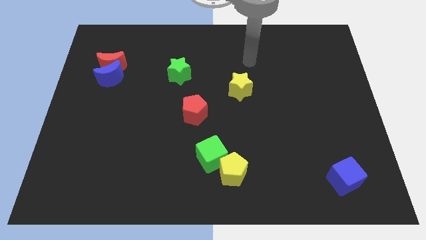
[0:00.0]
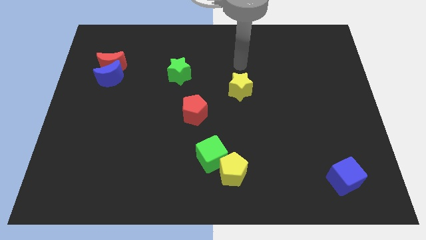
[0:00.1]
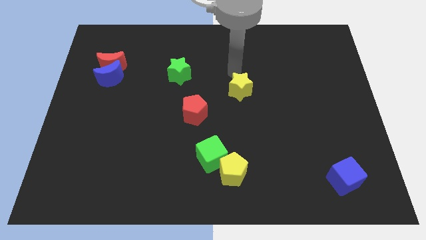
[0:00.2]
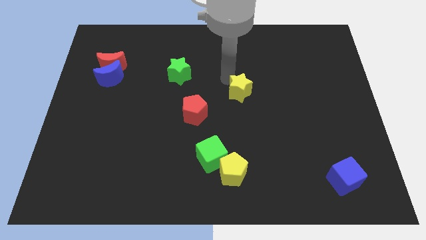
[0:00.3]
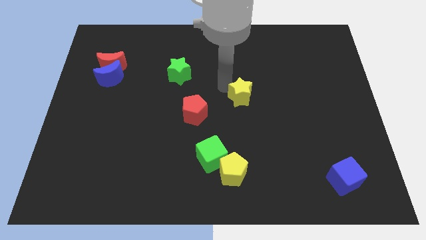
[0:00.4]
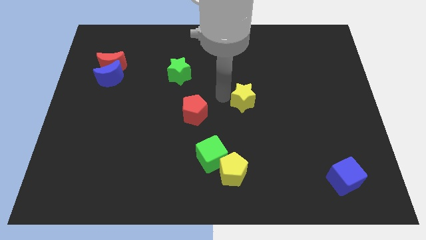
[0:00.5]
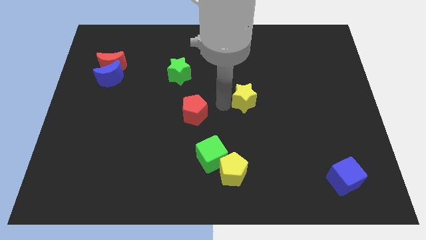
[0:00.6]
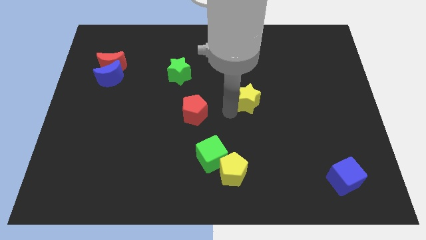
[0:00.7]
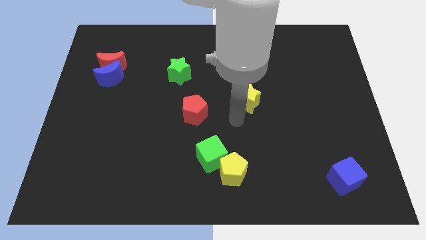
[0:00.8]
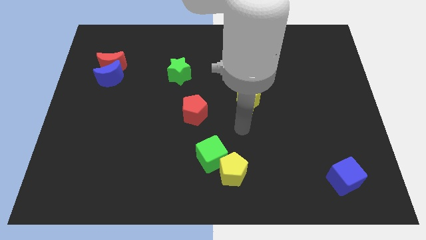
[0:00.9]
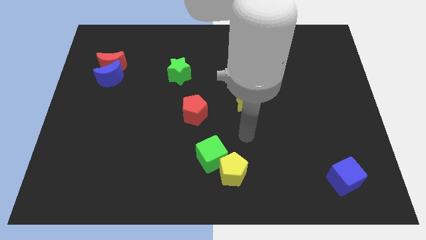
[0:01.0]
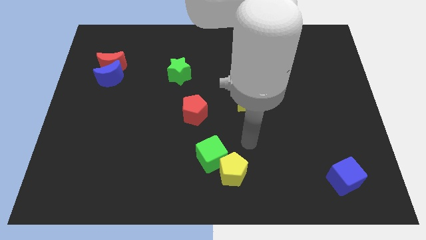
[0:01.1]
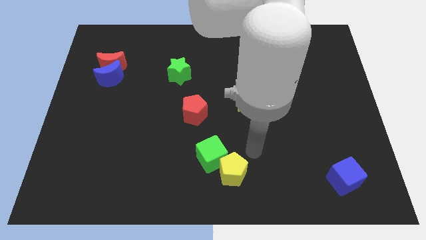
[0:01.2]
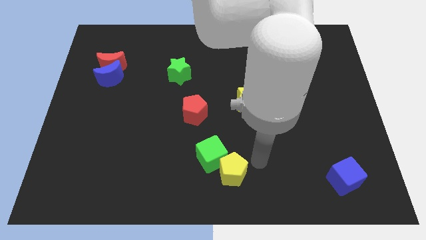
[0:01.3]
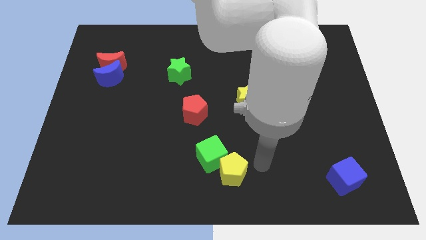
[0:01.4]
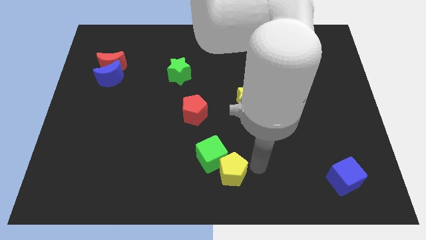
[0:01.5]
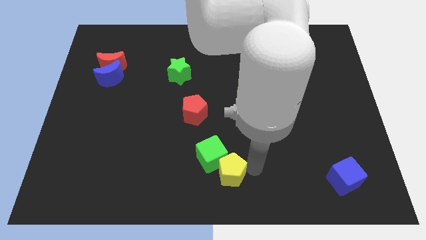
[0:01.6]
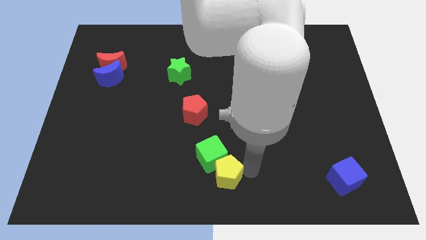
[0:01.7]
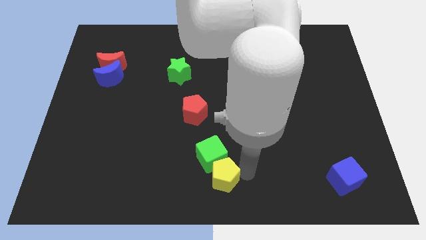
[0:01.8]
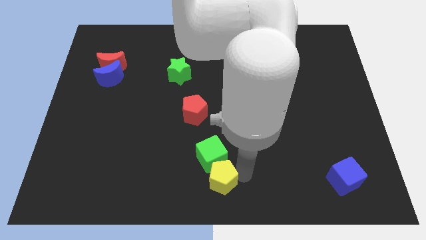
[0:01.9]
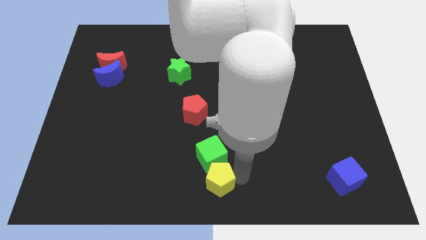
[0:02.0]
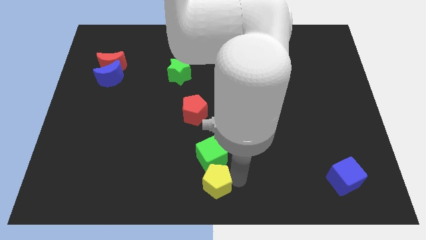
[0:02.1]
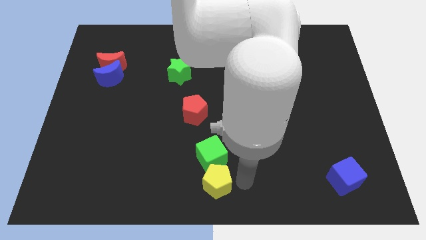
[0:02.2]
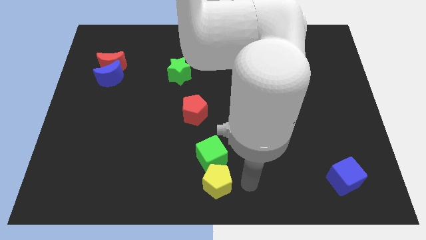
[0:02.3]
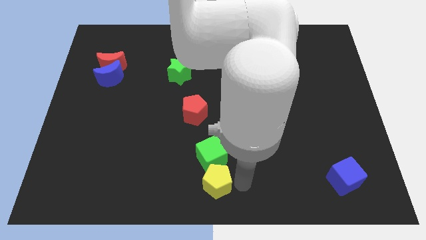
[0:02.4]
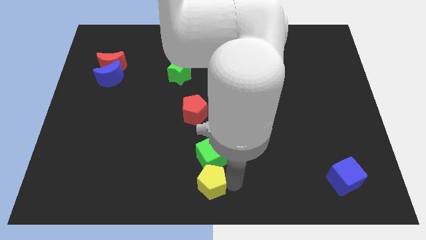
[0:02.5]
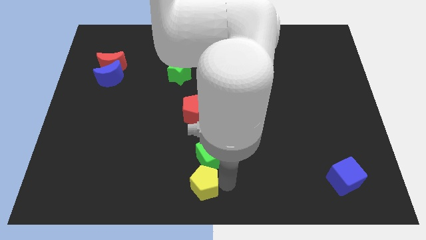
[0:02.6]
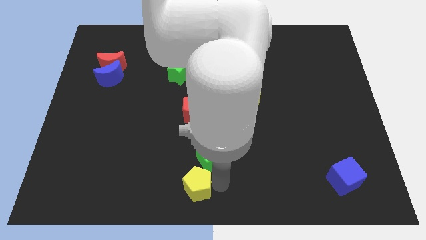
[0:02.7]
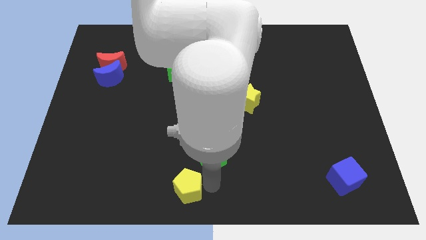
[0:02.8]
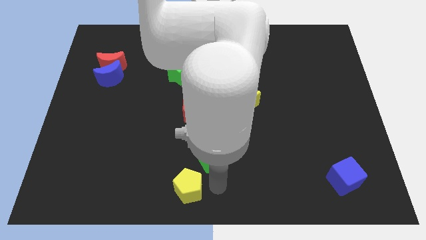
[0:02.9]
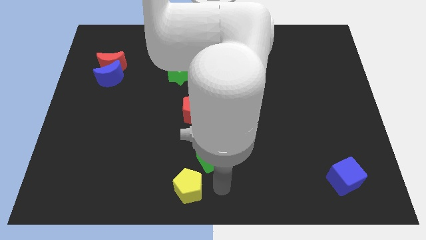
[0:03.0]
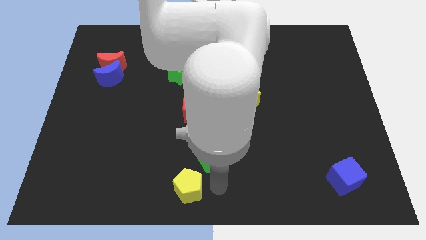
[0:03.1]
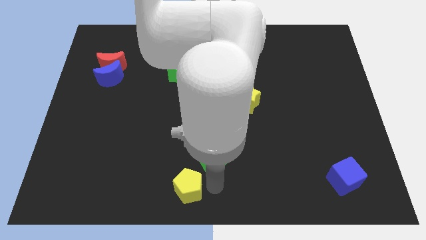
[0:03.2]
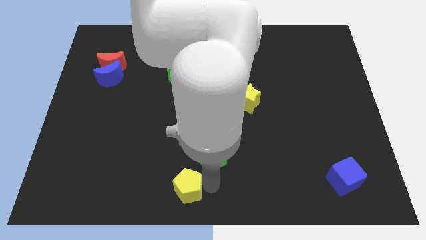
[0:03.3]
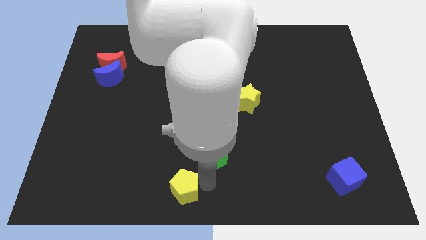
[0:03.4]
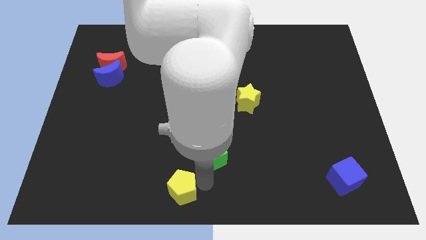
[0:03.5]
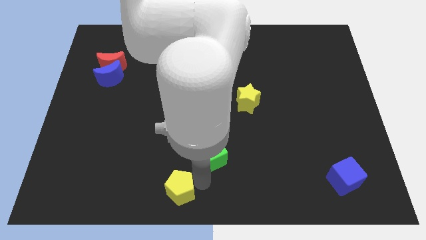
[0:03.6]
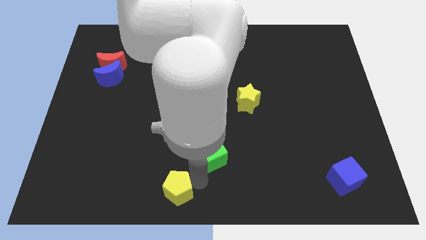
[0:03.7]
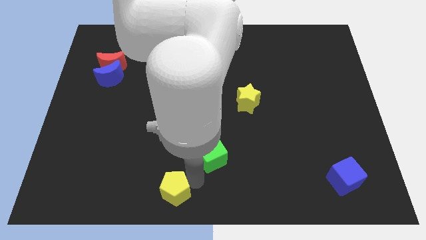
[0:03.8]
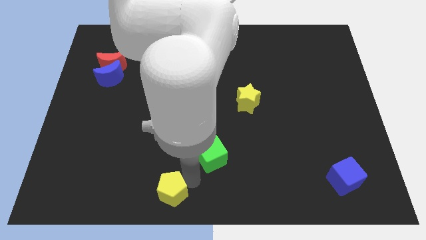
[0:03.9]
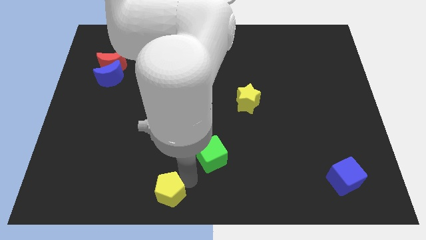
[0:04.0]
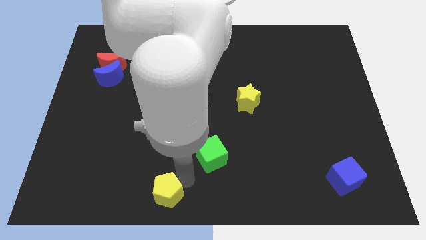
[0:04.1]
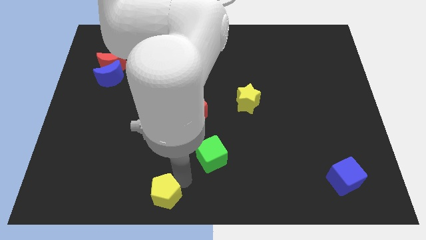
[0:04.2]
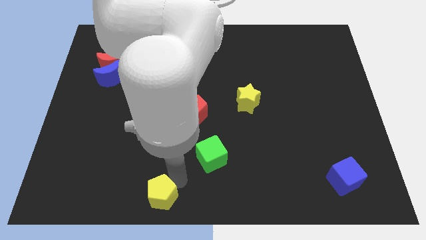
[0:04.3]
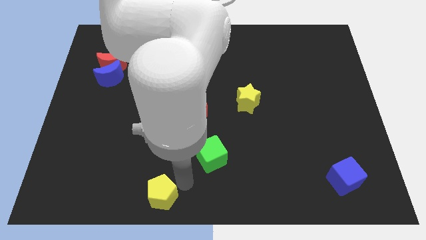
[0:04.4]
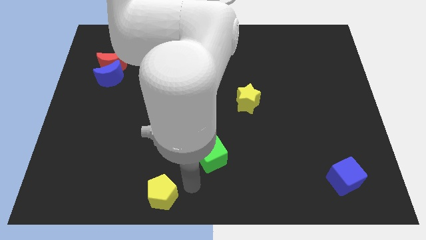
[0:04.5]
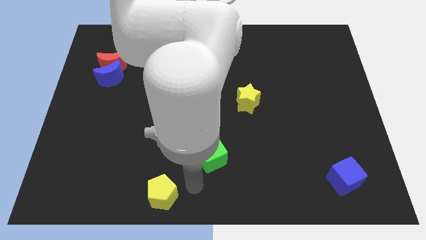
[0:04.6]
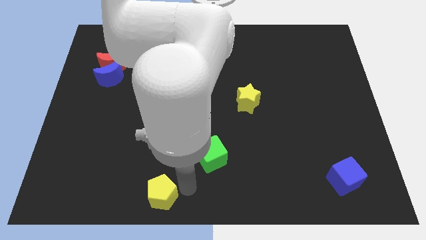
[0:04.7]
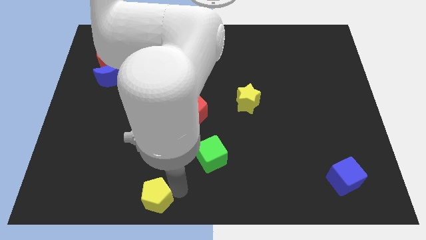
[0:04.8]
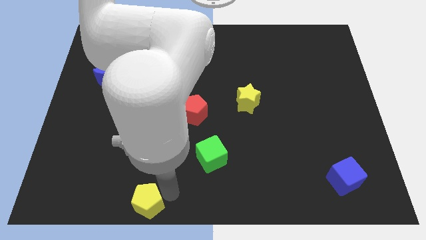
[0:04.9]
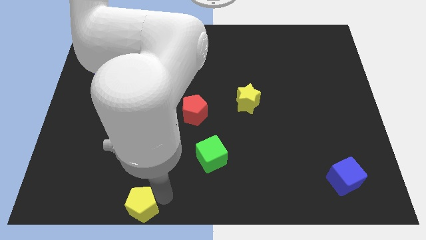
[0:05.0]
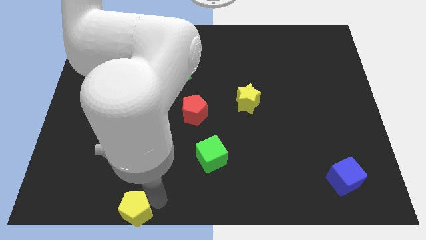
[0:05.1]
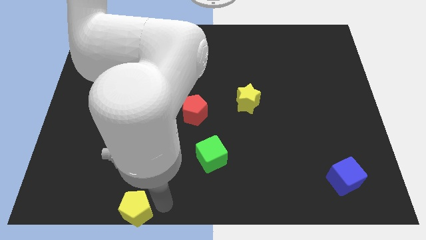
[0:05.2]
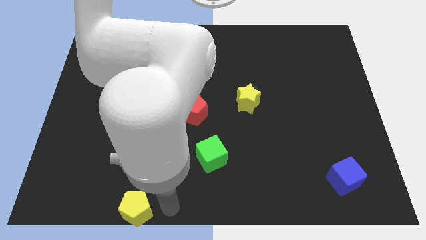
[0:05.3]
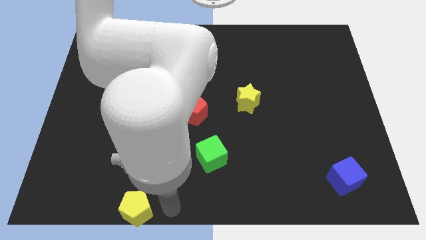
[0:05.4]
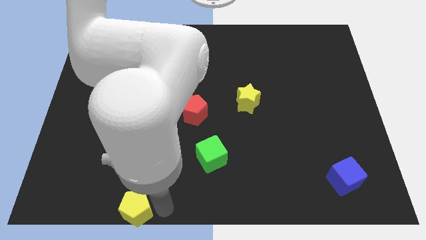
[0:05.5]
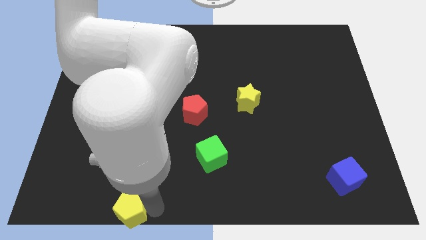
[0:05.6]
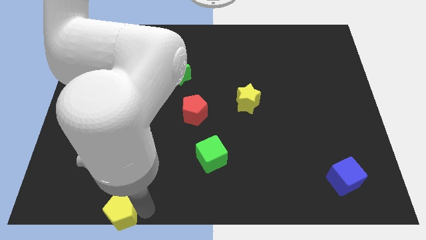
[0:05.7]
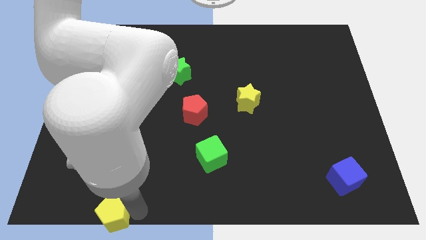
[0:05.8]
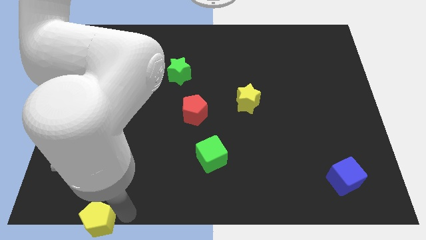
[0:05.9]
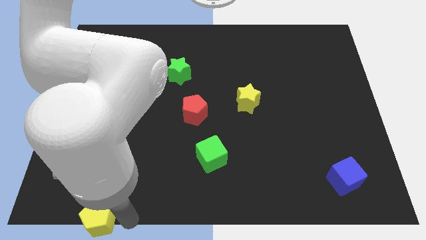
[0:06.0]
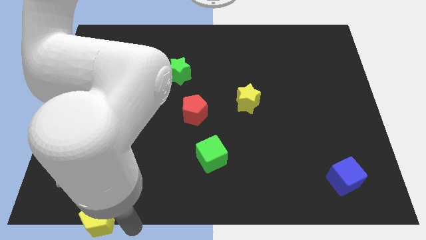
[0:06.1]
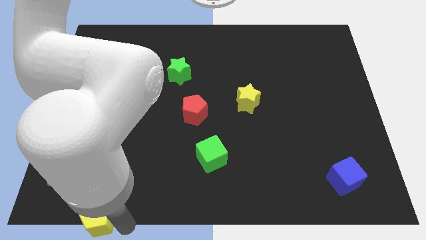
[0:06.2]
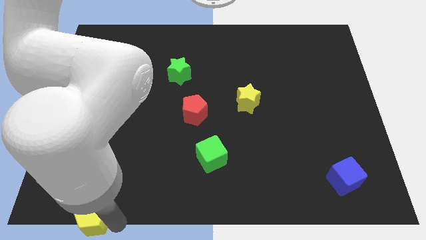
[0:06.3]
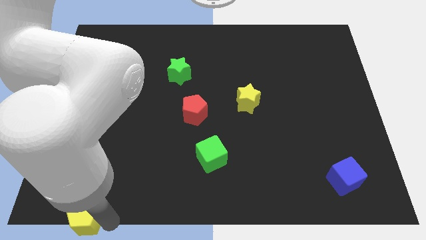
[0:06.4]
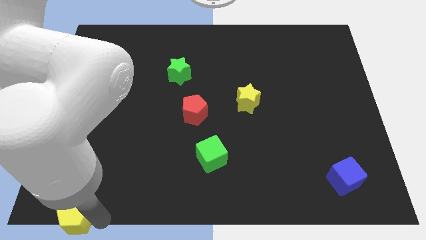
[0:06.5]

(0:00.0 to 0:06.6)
move the yellow pentagon to the bottom left corner
